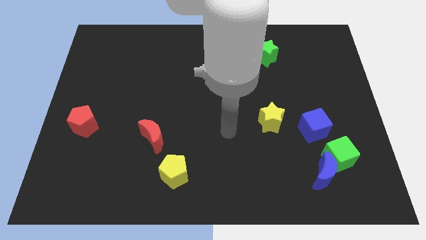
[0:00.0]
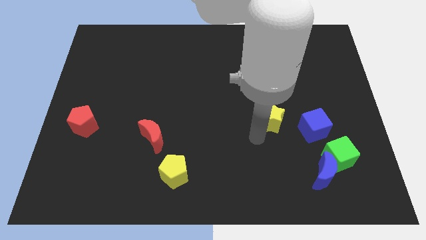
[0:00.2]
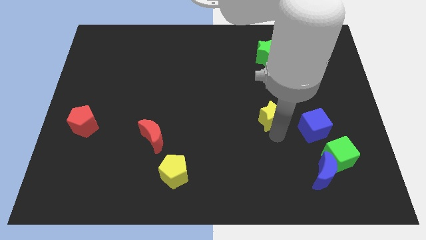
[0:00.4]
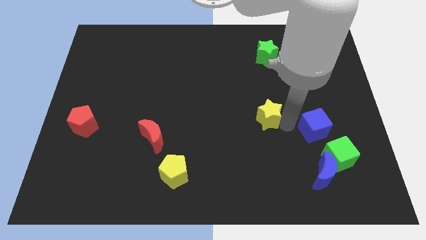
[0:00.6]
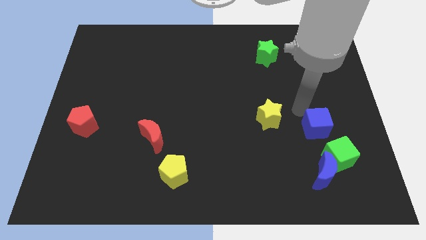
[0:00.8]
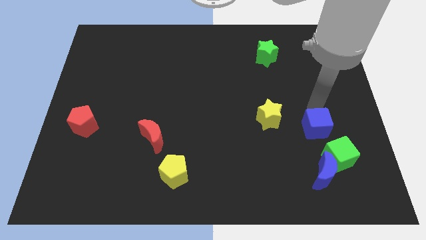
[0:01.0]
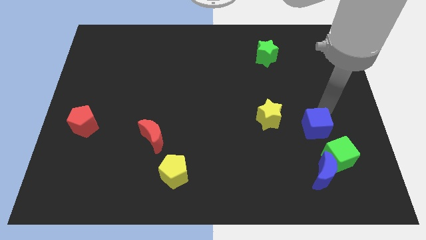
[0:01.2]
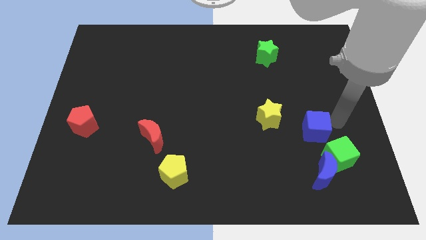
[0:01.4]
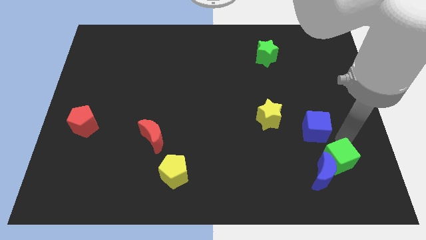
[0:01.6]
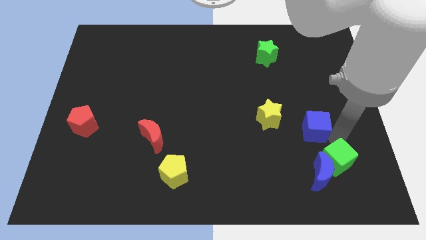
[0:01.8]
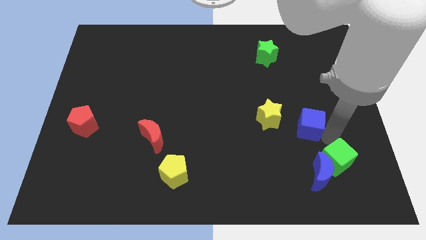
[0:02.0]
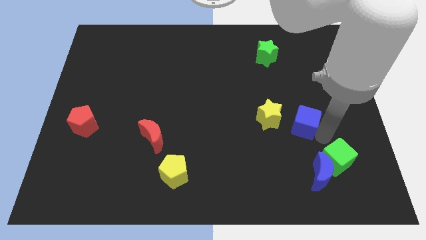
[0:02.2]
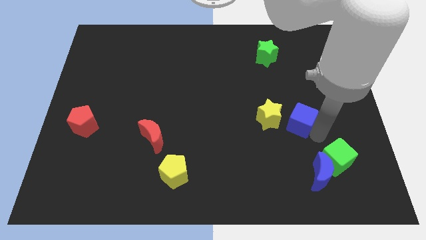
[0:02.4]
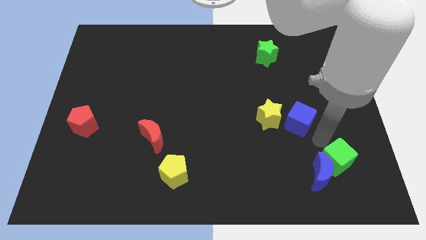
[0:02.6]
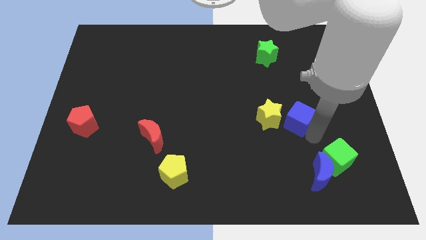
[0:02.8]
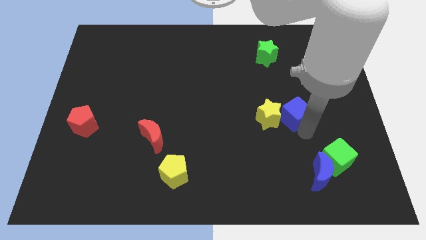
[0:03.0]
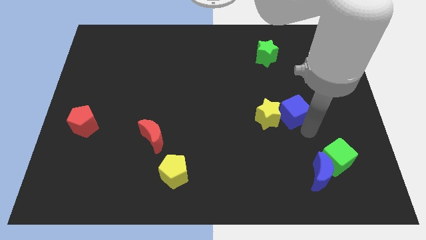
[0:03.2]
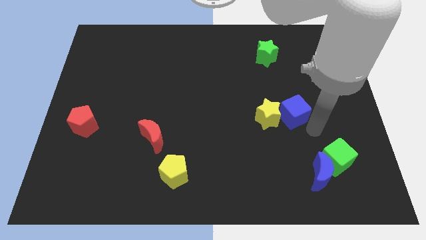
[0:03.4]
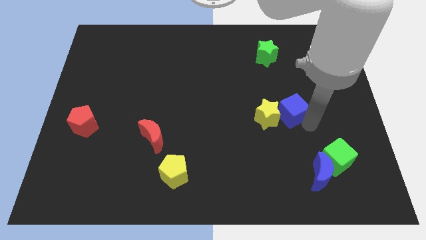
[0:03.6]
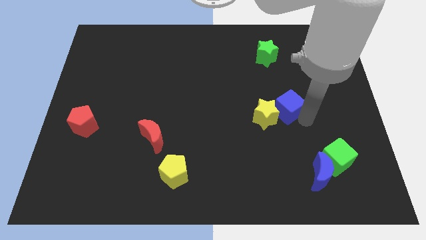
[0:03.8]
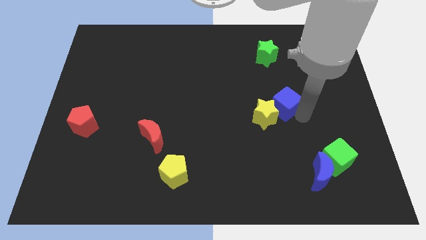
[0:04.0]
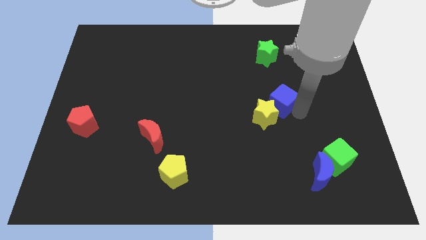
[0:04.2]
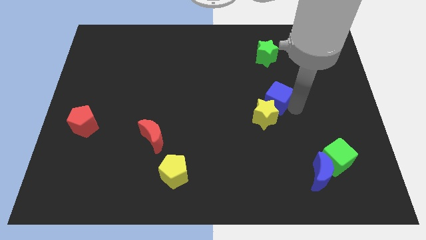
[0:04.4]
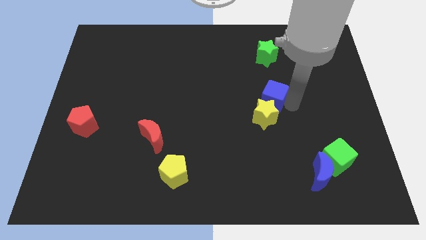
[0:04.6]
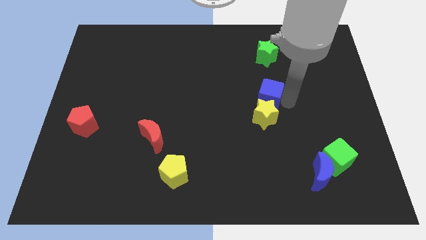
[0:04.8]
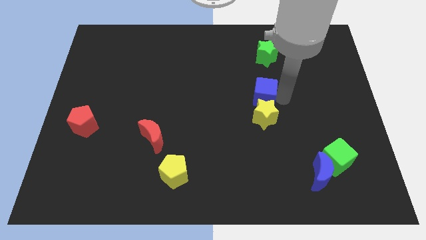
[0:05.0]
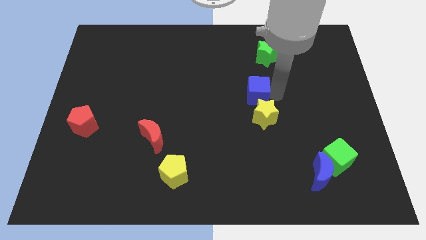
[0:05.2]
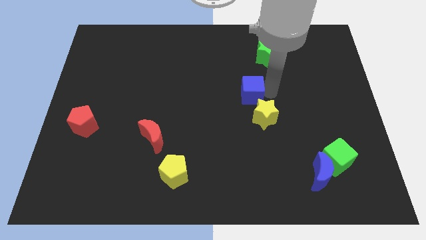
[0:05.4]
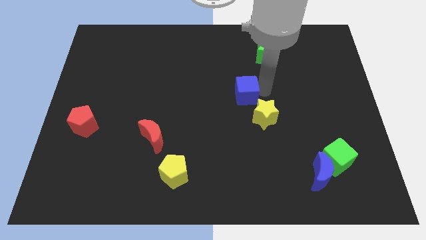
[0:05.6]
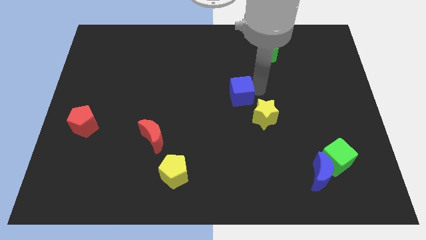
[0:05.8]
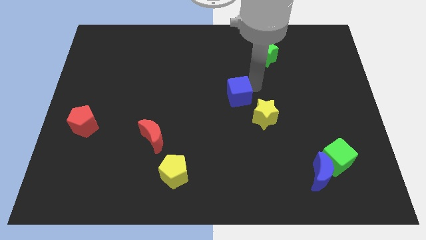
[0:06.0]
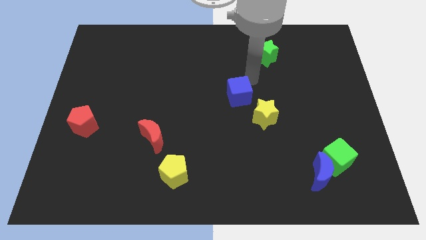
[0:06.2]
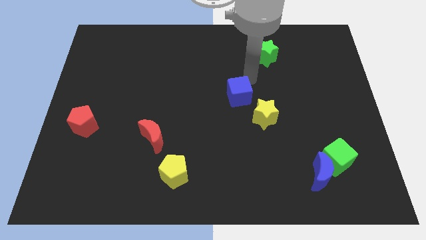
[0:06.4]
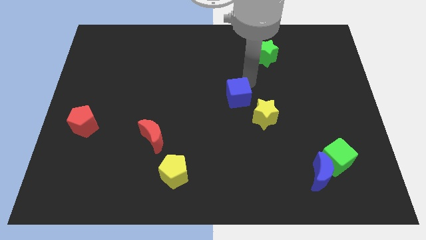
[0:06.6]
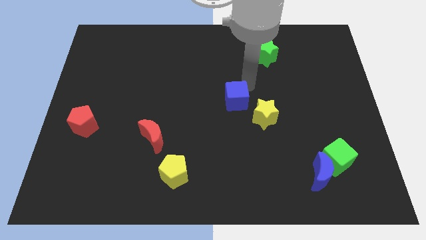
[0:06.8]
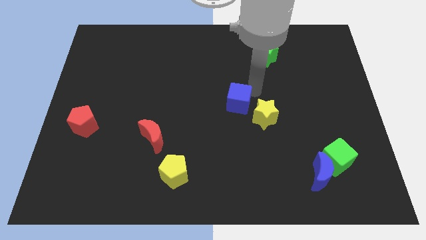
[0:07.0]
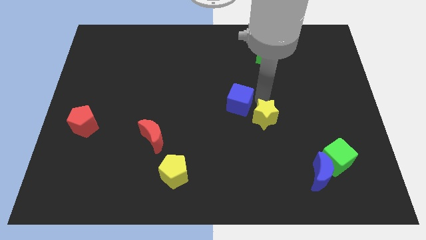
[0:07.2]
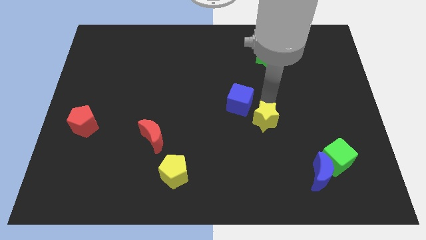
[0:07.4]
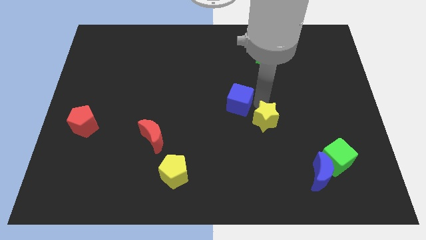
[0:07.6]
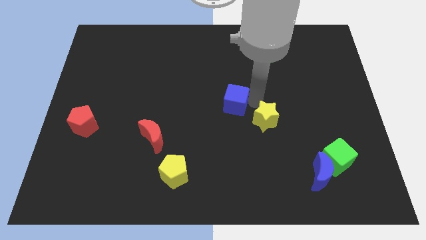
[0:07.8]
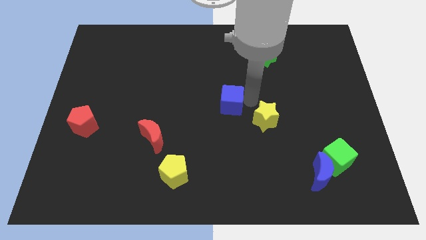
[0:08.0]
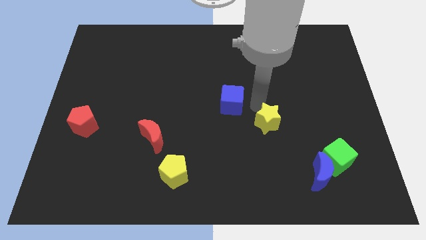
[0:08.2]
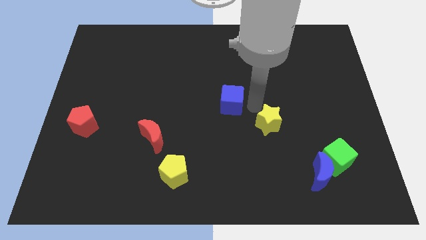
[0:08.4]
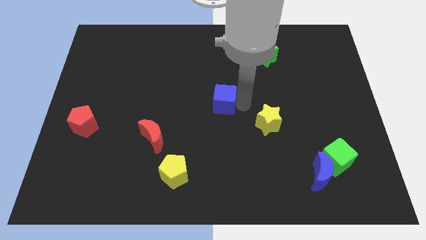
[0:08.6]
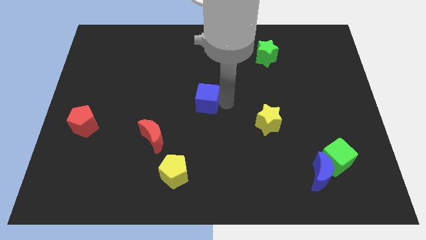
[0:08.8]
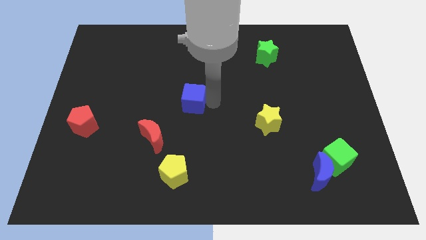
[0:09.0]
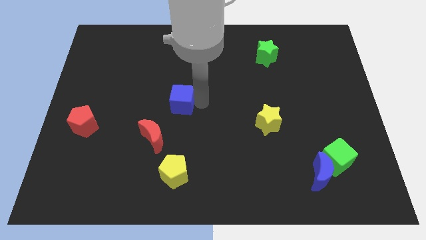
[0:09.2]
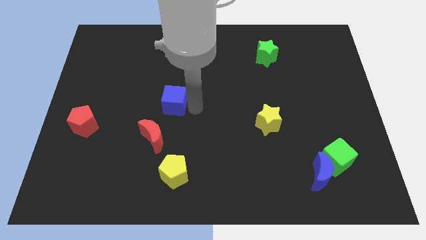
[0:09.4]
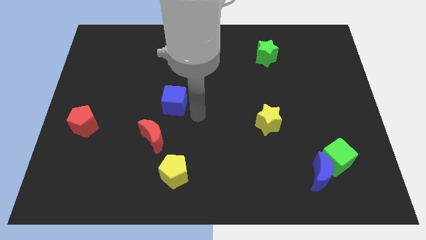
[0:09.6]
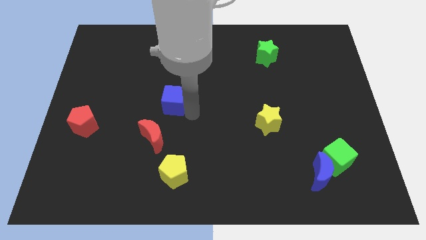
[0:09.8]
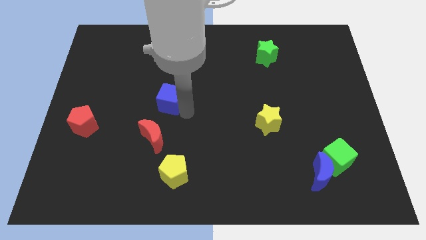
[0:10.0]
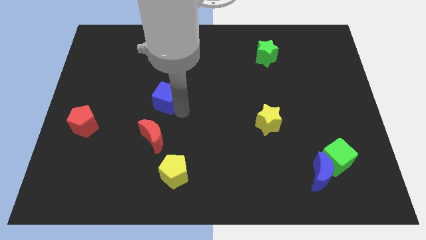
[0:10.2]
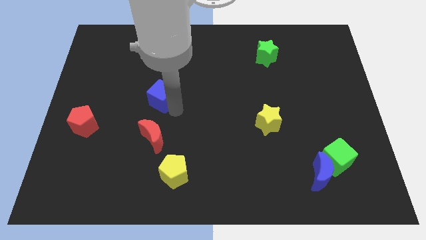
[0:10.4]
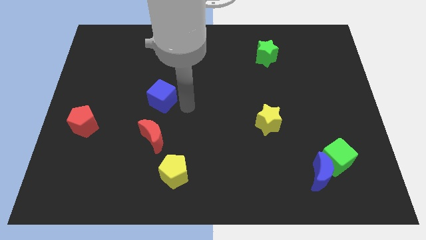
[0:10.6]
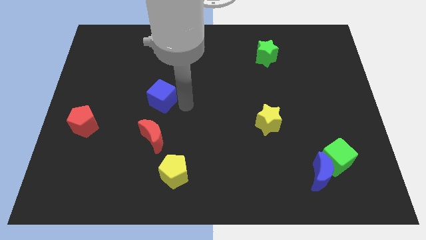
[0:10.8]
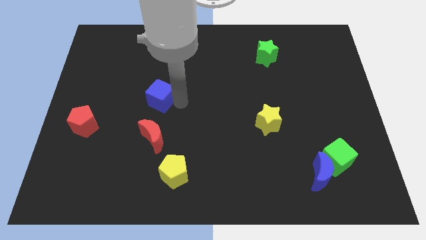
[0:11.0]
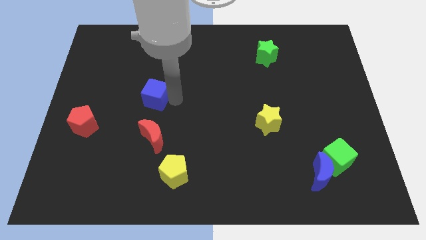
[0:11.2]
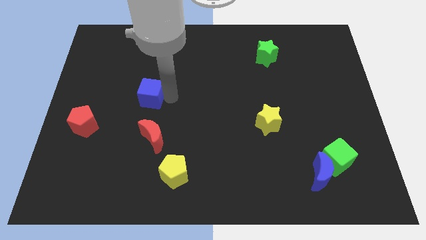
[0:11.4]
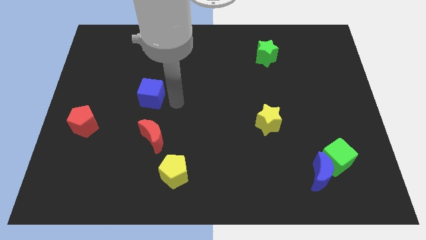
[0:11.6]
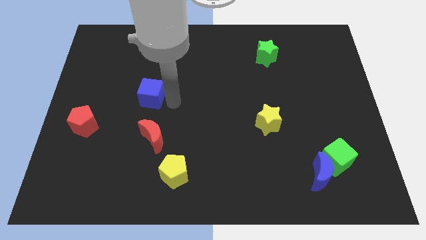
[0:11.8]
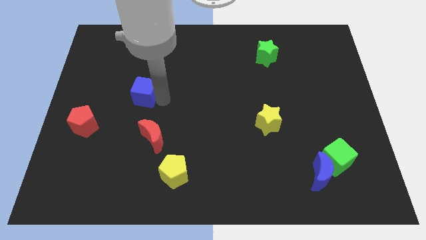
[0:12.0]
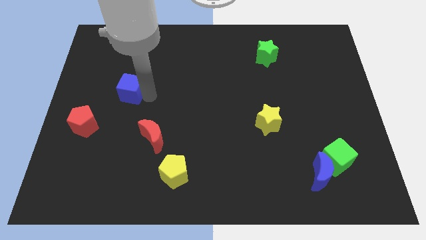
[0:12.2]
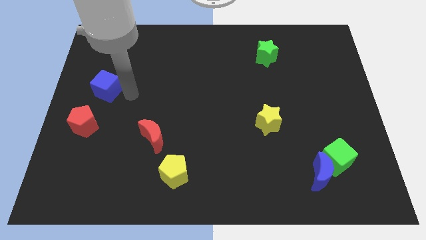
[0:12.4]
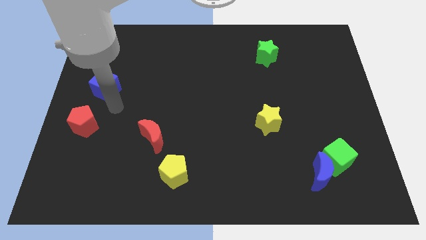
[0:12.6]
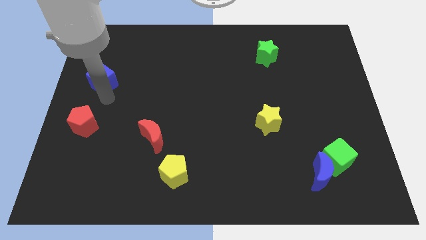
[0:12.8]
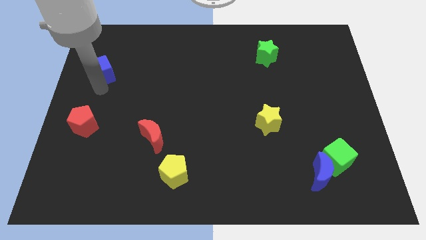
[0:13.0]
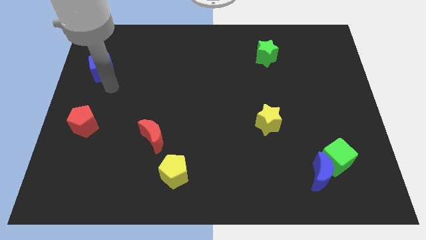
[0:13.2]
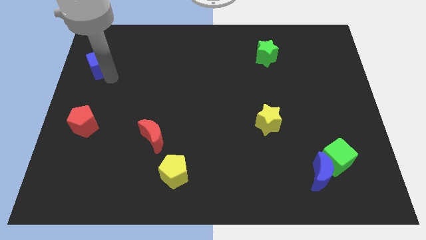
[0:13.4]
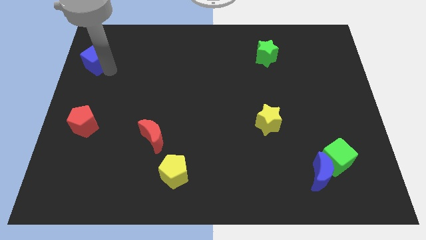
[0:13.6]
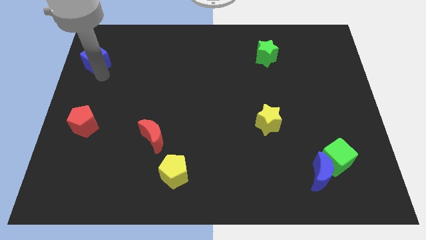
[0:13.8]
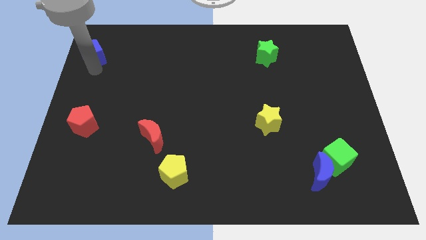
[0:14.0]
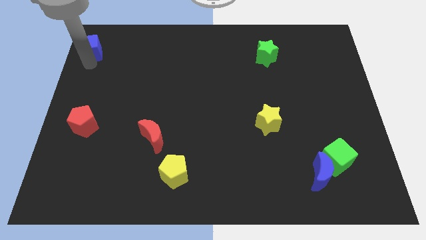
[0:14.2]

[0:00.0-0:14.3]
push the blue cube to the top left

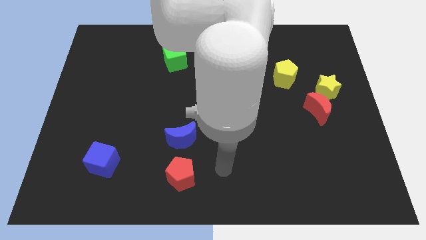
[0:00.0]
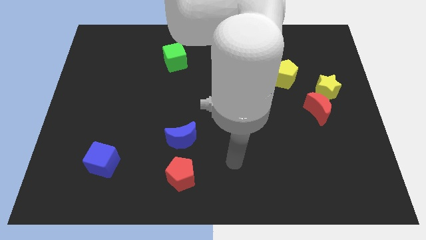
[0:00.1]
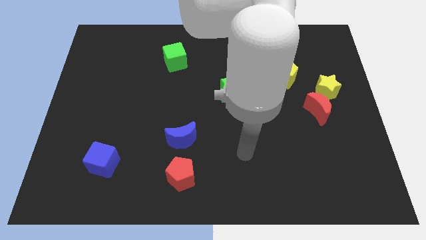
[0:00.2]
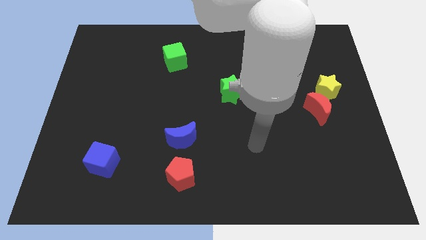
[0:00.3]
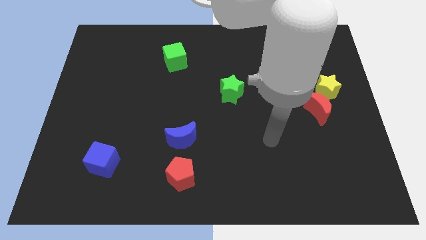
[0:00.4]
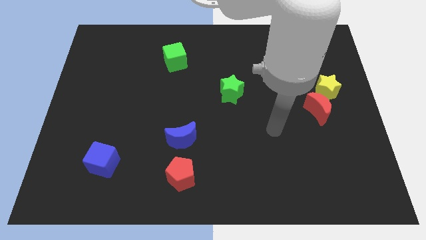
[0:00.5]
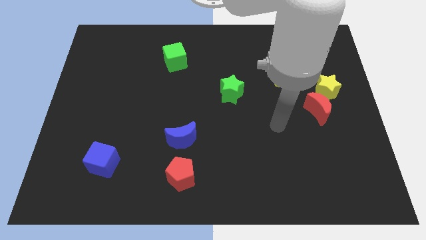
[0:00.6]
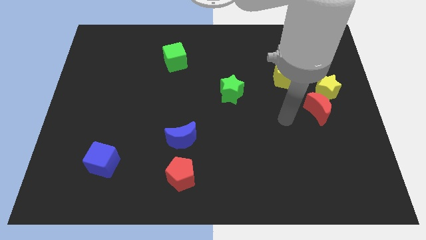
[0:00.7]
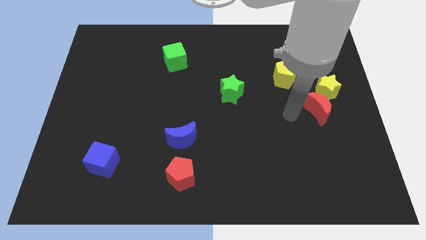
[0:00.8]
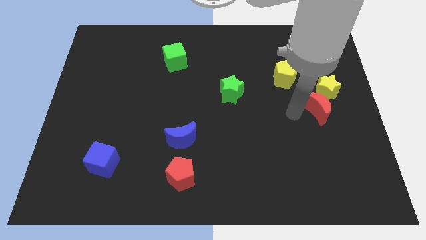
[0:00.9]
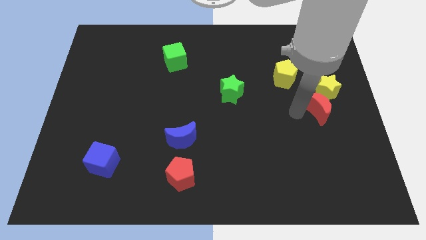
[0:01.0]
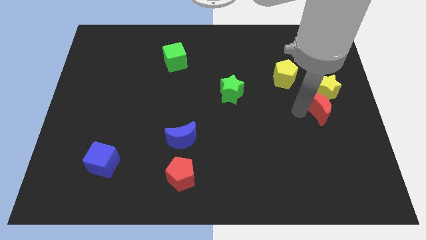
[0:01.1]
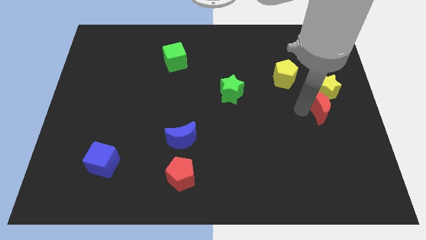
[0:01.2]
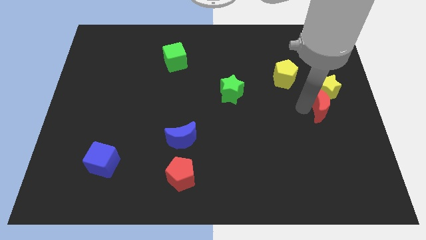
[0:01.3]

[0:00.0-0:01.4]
move the red moon to the center right
